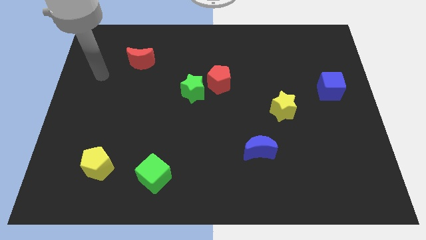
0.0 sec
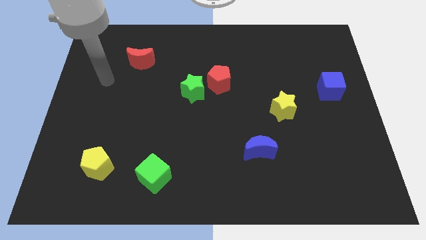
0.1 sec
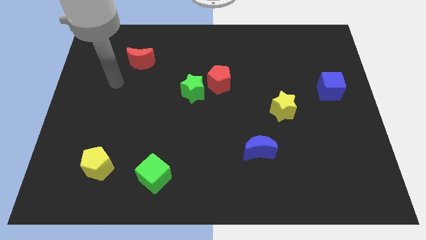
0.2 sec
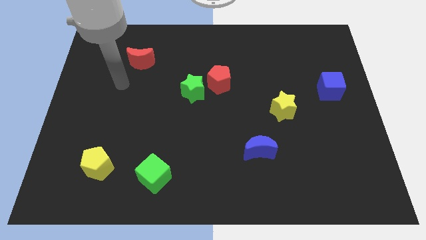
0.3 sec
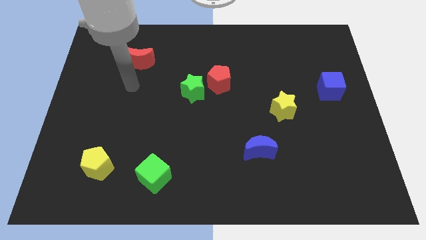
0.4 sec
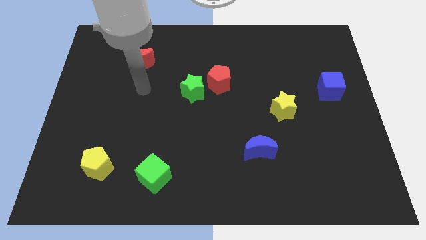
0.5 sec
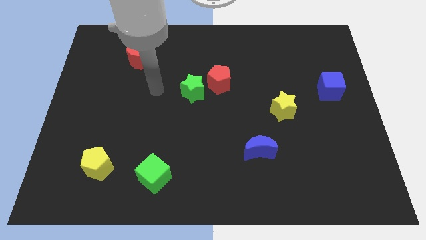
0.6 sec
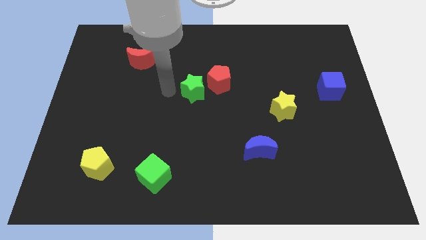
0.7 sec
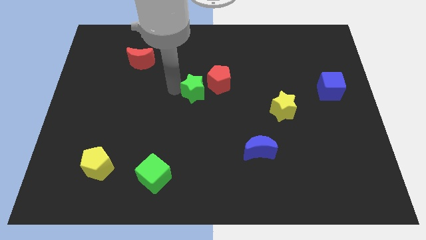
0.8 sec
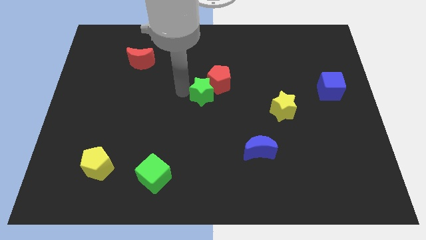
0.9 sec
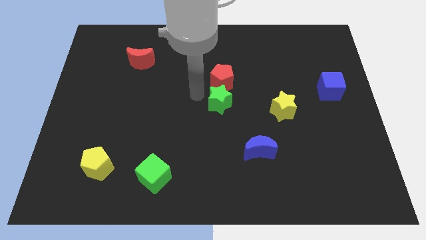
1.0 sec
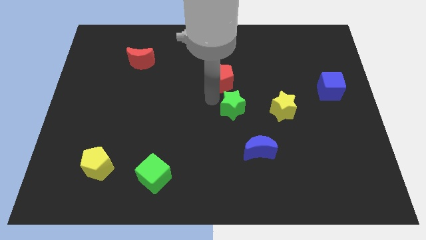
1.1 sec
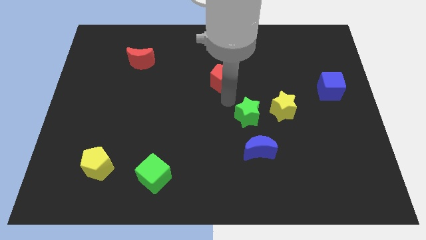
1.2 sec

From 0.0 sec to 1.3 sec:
move the red pentagon away from the green star

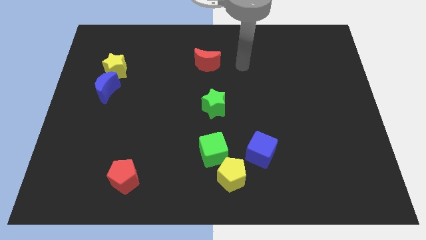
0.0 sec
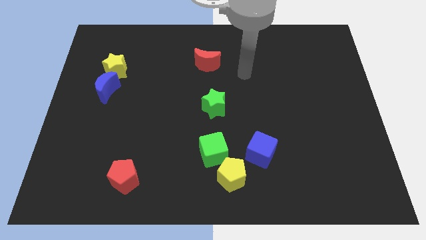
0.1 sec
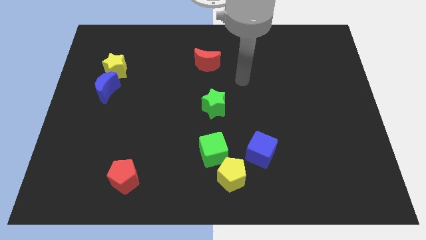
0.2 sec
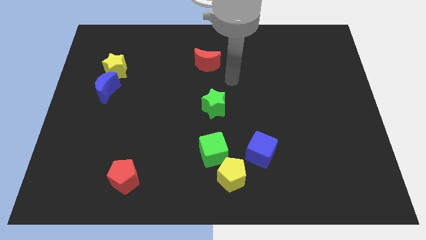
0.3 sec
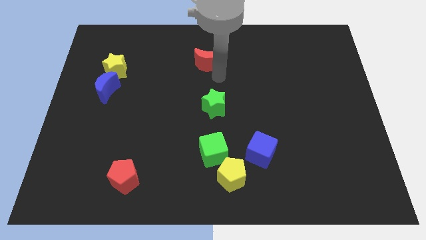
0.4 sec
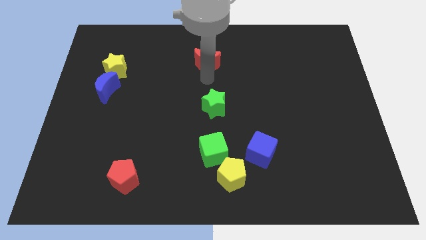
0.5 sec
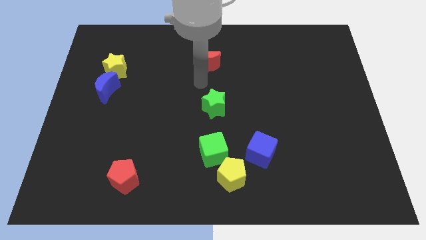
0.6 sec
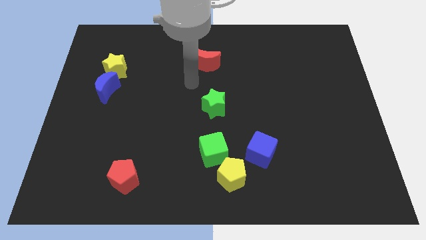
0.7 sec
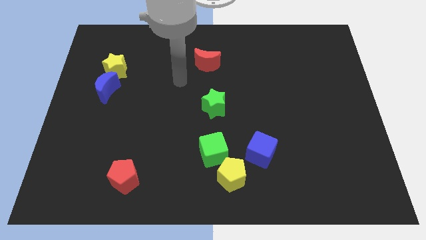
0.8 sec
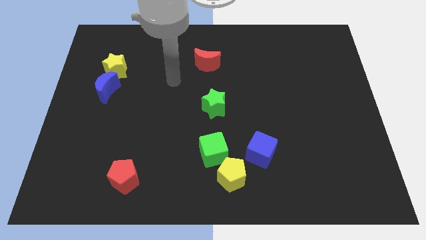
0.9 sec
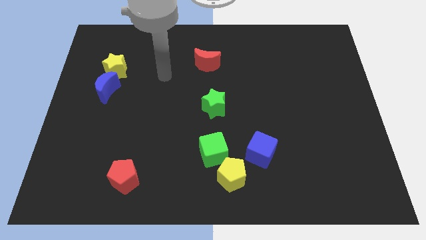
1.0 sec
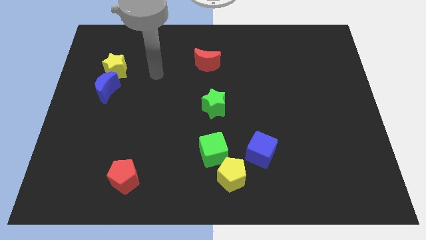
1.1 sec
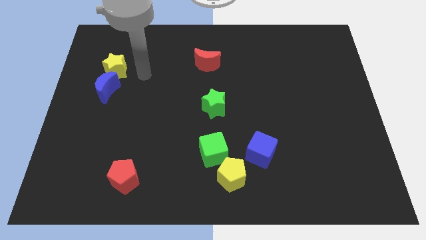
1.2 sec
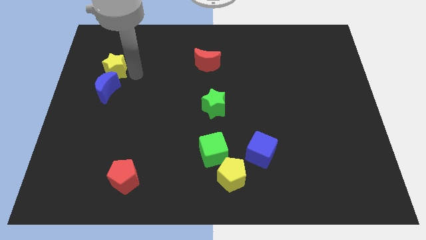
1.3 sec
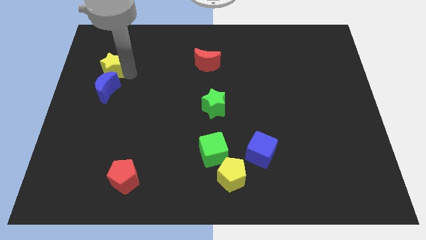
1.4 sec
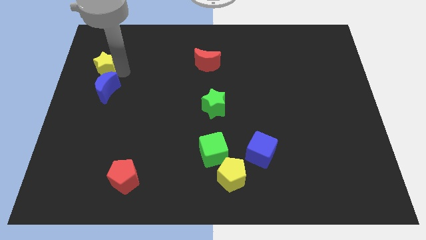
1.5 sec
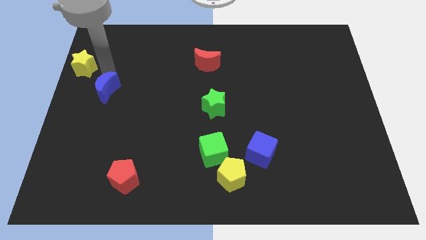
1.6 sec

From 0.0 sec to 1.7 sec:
separate the blue moon from the yellow star

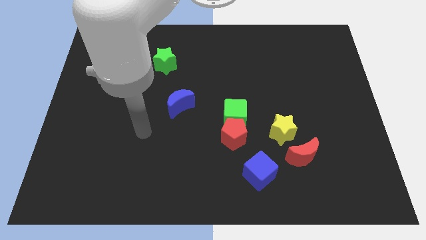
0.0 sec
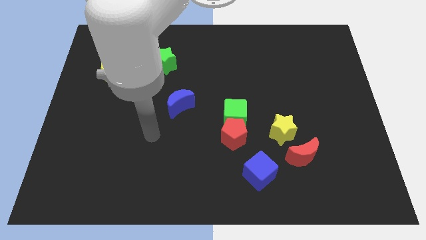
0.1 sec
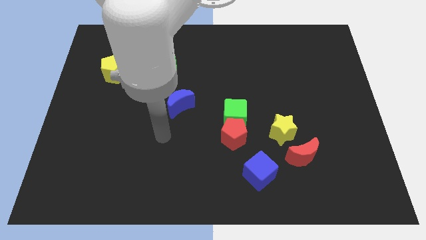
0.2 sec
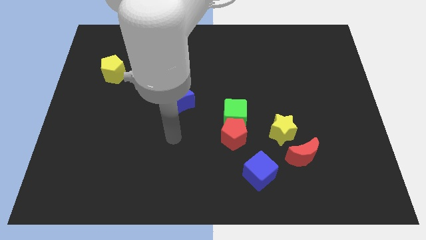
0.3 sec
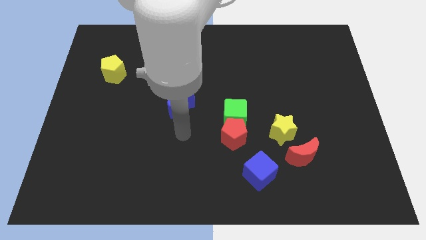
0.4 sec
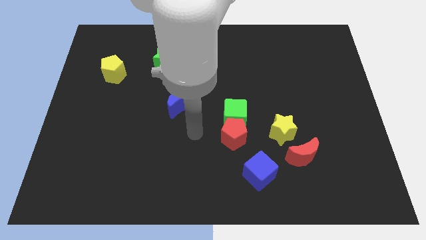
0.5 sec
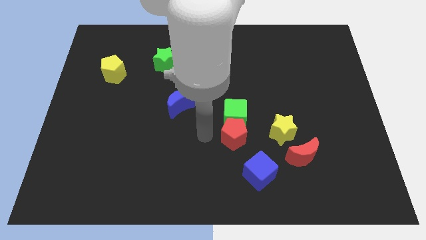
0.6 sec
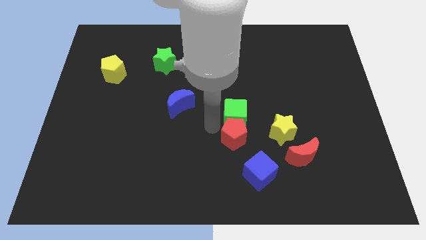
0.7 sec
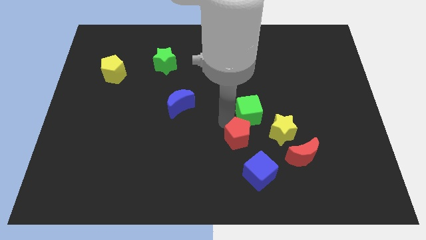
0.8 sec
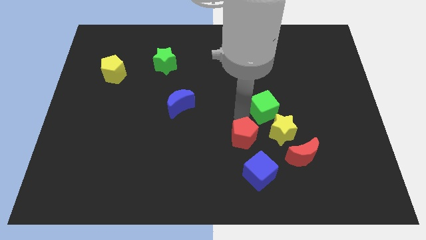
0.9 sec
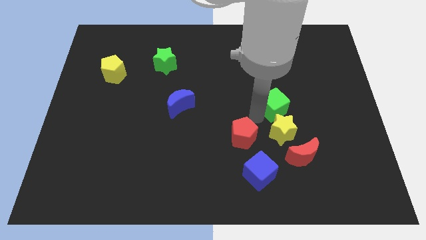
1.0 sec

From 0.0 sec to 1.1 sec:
pull the red pentagon apart from the green cube

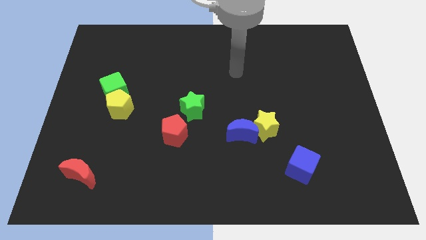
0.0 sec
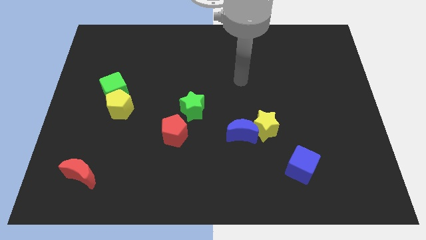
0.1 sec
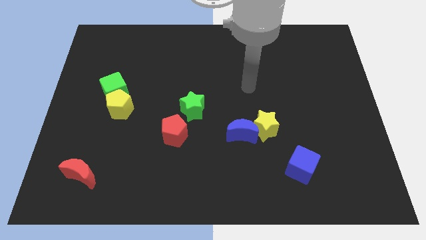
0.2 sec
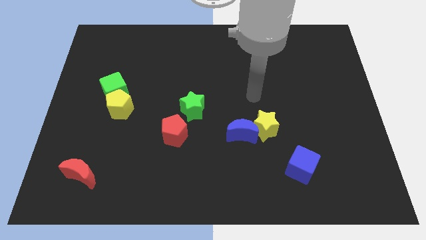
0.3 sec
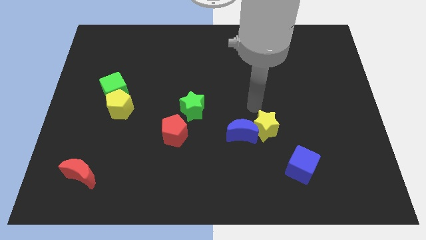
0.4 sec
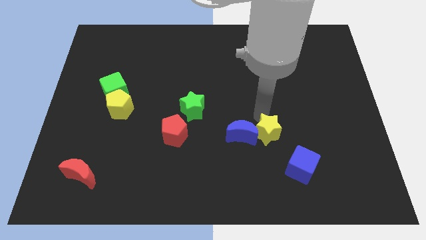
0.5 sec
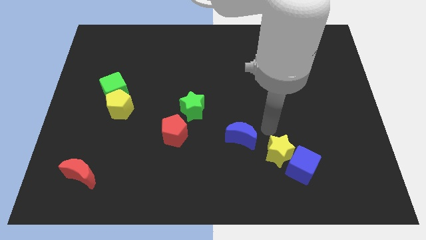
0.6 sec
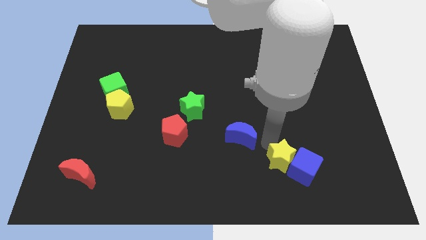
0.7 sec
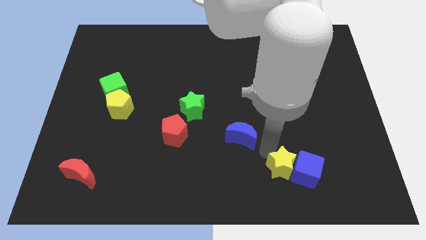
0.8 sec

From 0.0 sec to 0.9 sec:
move the blue moon away from the yellow star

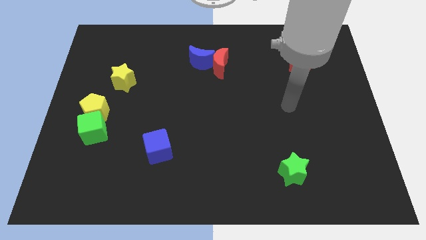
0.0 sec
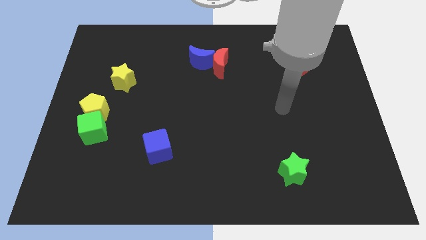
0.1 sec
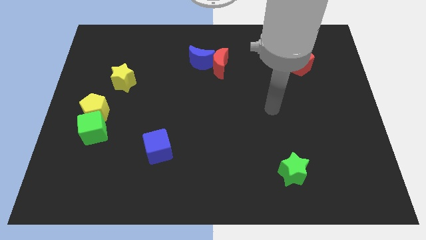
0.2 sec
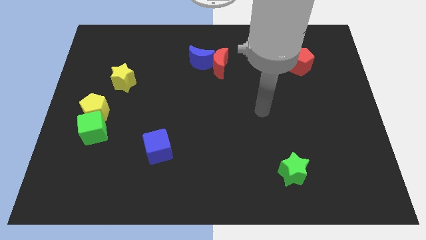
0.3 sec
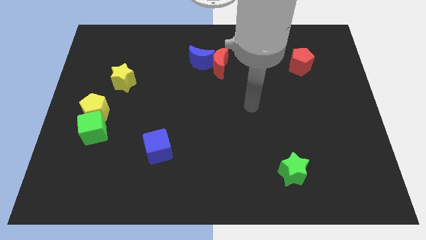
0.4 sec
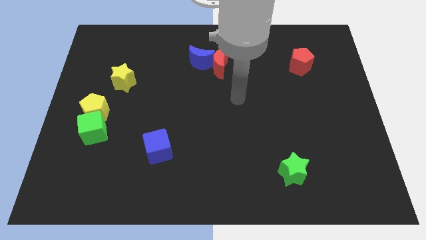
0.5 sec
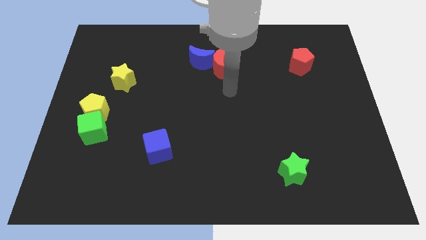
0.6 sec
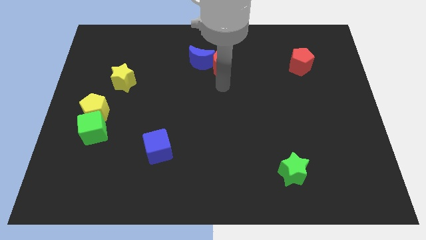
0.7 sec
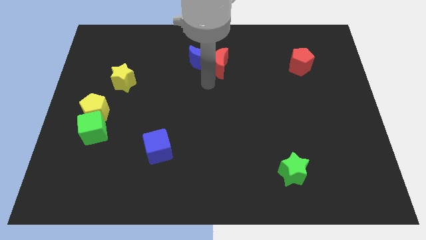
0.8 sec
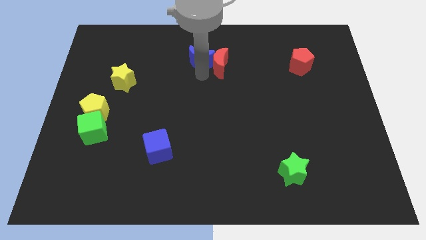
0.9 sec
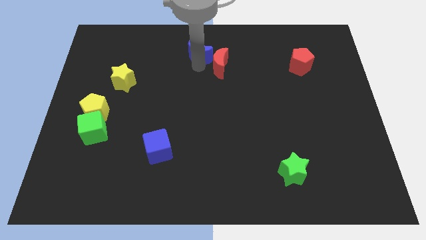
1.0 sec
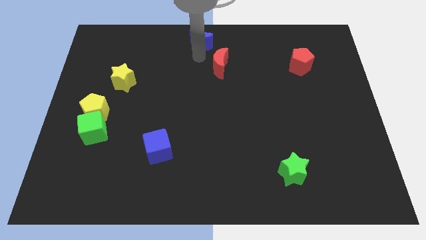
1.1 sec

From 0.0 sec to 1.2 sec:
move the red moon away from the blue moon

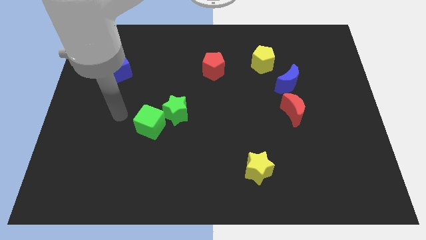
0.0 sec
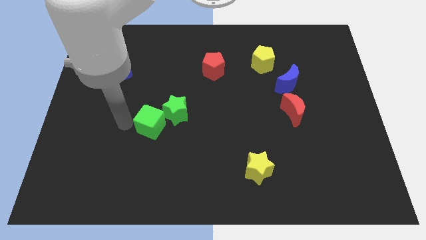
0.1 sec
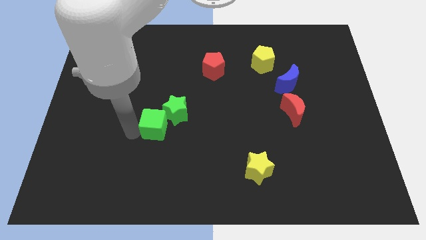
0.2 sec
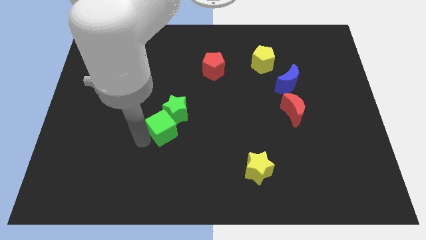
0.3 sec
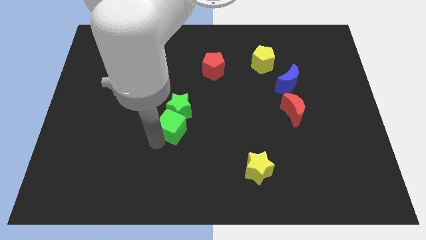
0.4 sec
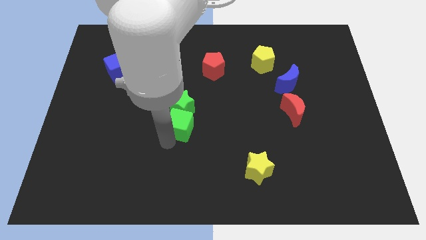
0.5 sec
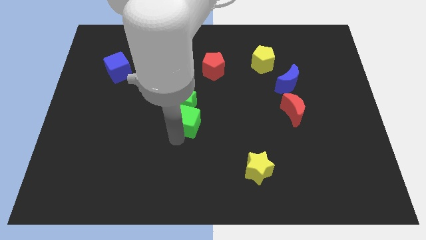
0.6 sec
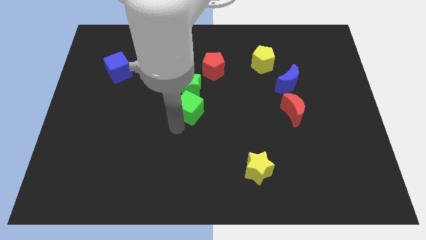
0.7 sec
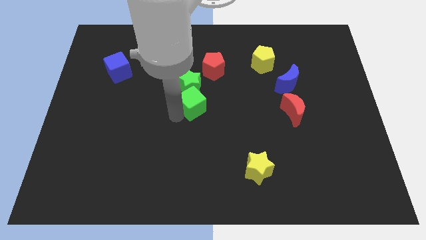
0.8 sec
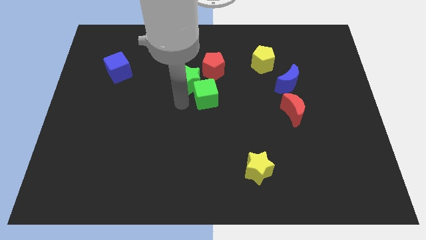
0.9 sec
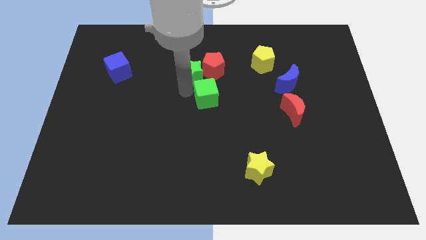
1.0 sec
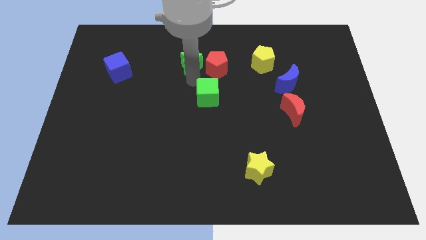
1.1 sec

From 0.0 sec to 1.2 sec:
pull the green cube apart from the green star

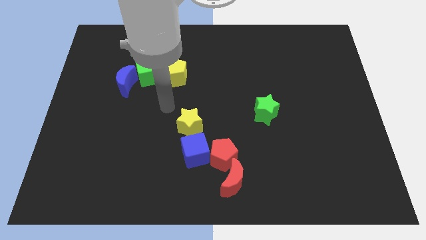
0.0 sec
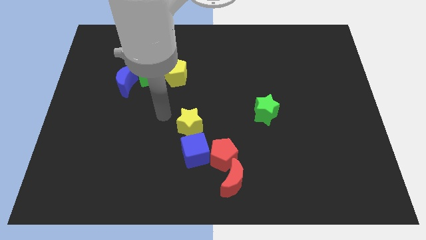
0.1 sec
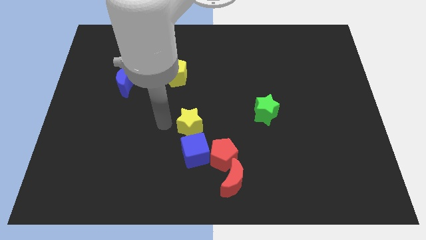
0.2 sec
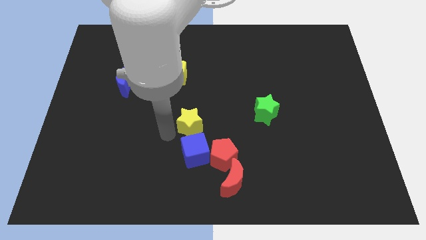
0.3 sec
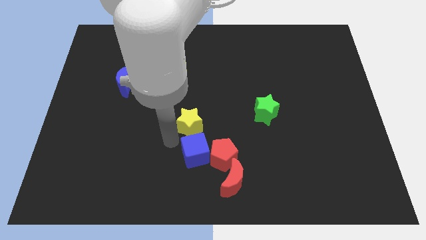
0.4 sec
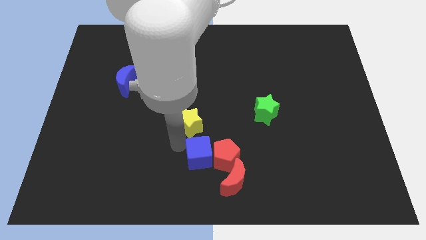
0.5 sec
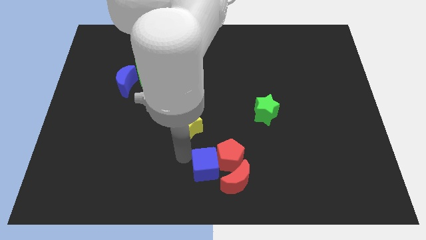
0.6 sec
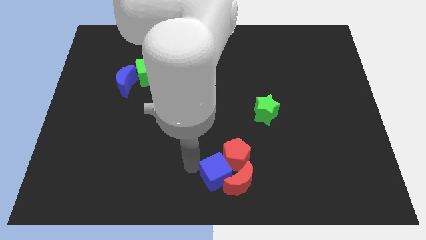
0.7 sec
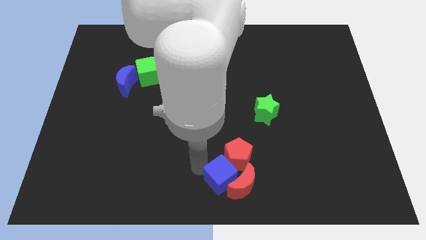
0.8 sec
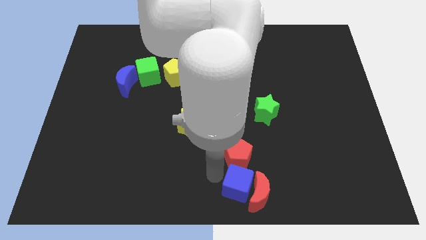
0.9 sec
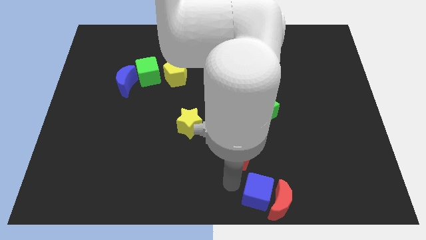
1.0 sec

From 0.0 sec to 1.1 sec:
pull the red pentagon apart from the blue cube and red moon

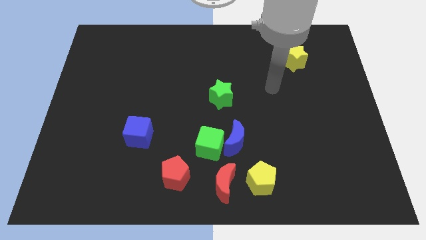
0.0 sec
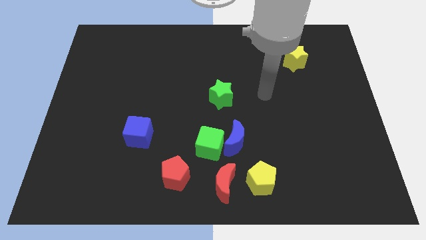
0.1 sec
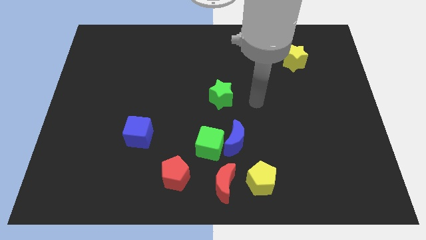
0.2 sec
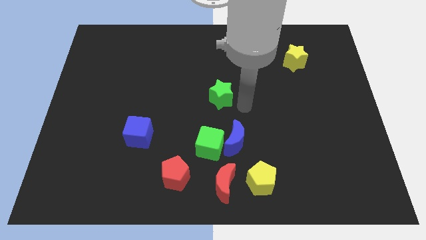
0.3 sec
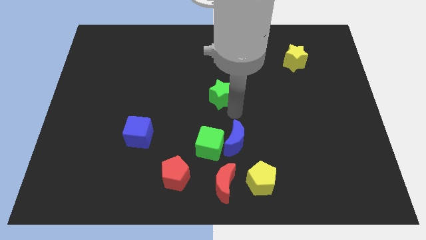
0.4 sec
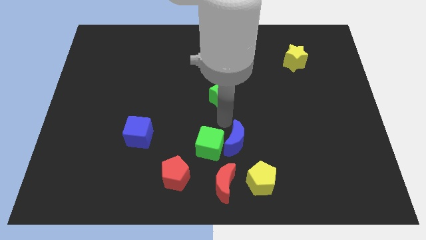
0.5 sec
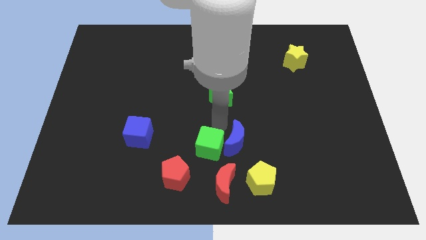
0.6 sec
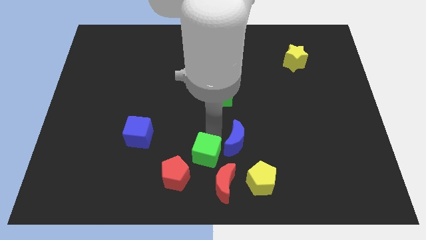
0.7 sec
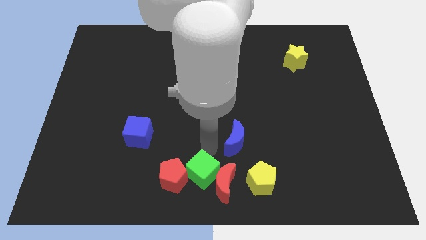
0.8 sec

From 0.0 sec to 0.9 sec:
pull the blue moon apart from the green cube
